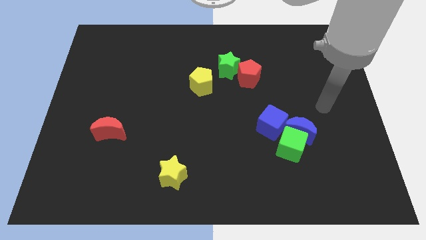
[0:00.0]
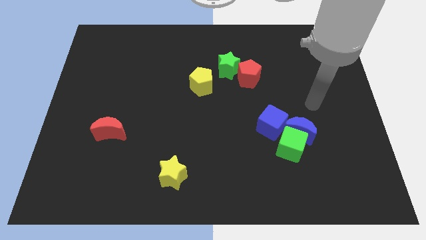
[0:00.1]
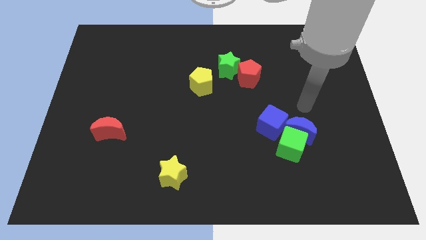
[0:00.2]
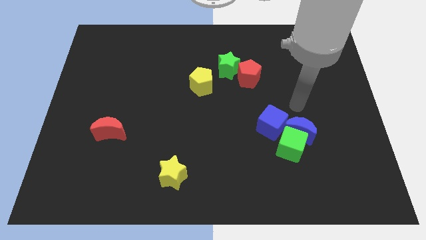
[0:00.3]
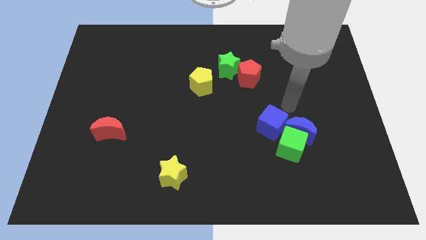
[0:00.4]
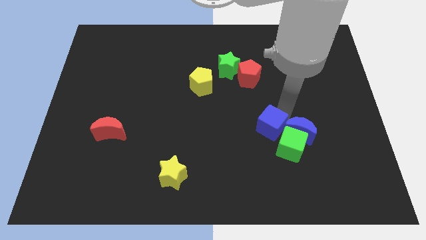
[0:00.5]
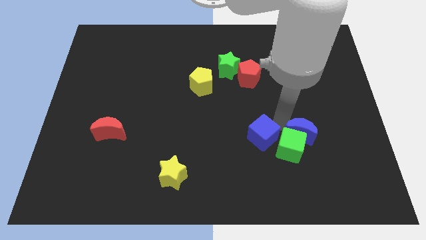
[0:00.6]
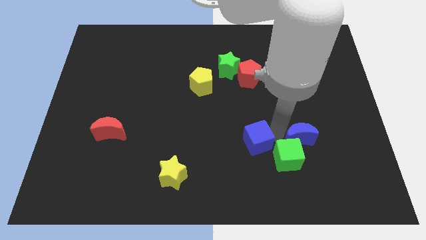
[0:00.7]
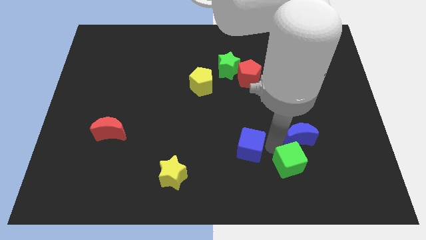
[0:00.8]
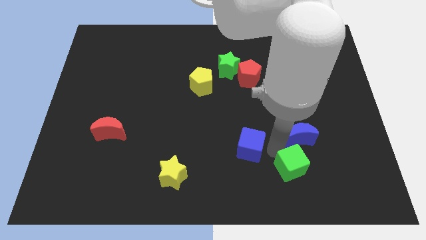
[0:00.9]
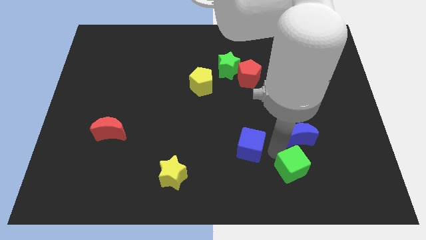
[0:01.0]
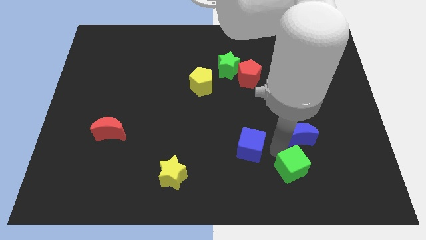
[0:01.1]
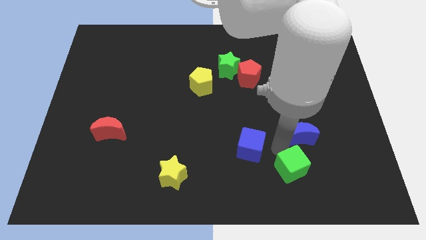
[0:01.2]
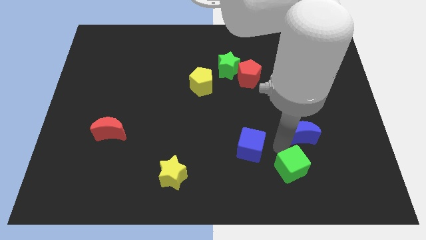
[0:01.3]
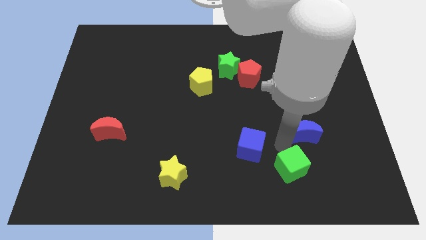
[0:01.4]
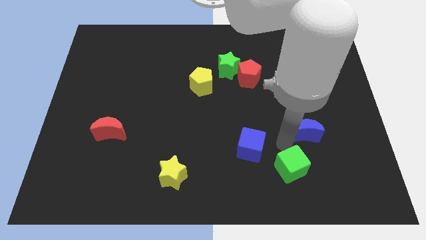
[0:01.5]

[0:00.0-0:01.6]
move the blue moon away from the green cube and blue cube

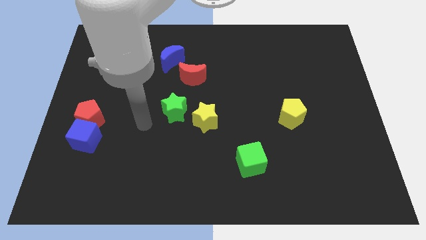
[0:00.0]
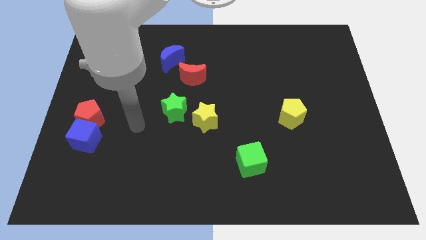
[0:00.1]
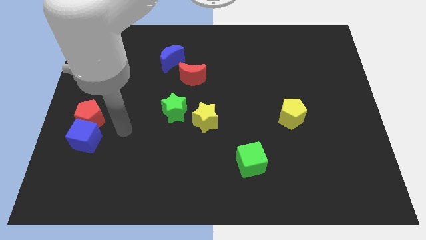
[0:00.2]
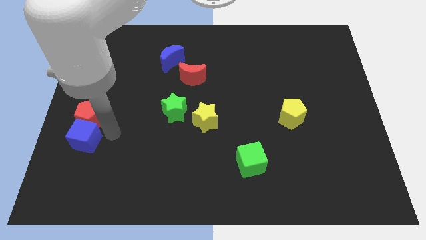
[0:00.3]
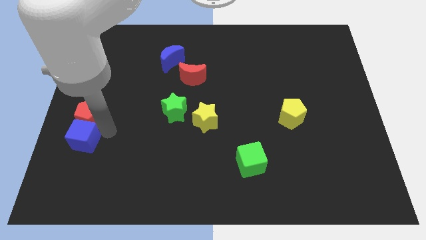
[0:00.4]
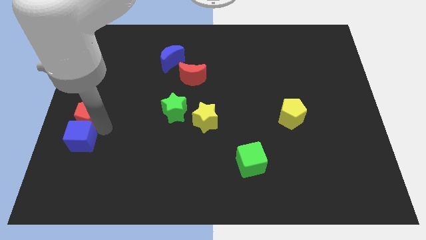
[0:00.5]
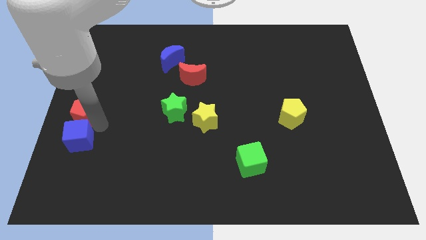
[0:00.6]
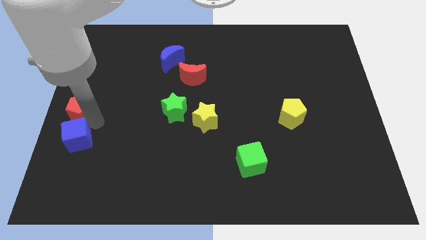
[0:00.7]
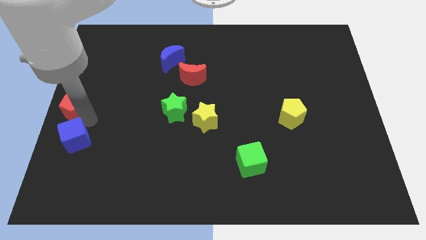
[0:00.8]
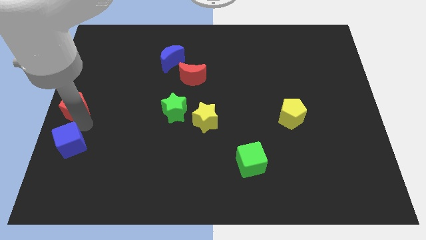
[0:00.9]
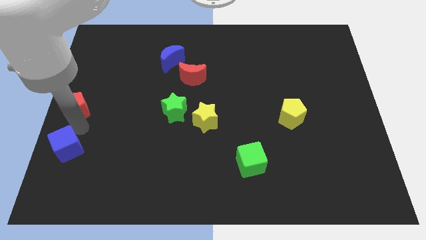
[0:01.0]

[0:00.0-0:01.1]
pull the red pentagon apart from the blue cube

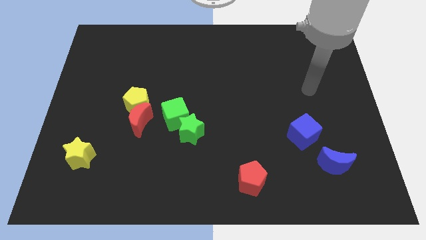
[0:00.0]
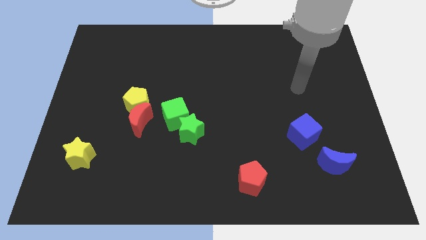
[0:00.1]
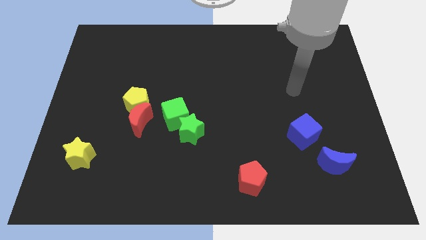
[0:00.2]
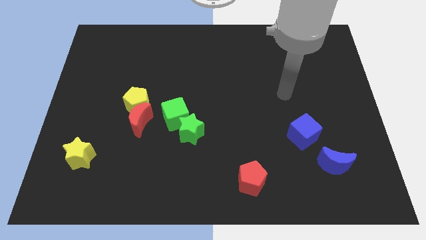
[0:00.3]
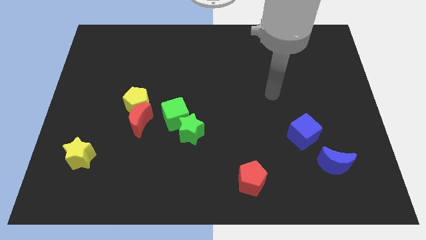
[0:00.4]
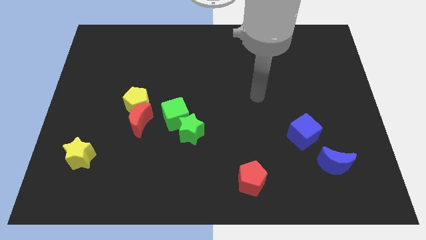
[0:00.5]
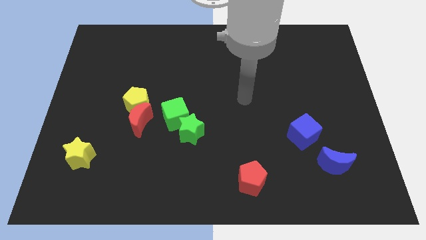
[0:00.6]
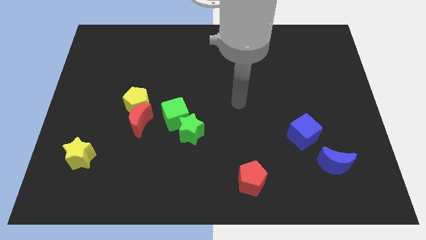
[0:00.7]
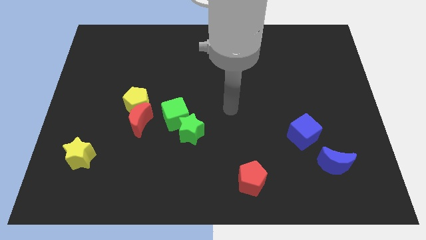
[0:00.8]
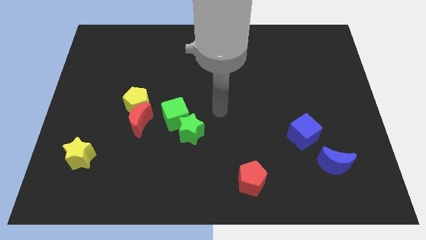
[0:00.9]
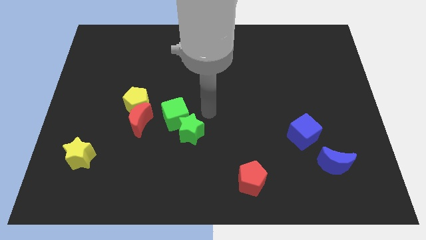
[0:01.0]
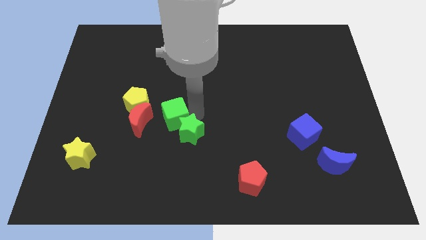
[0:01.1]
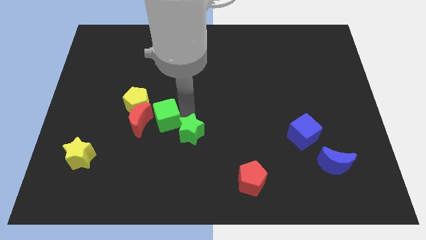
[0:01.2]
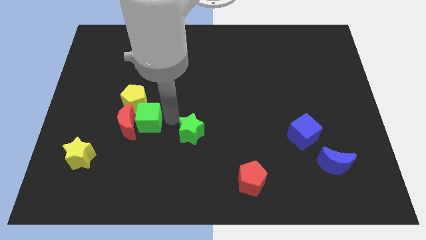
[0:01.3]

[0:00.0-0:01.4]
separate the green star from the green cube

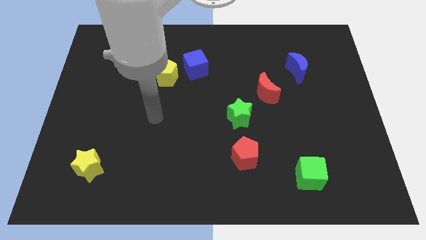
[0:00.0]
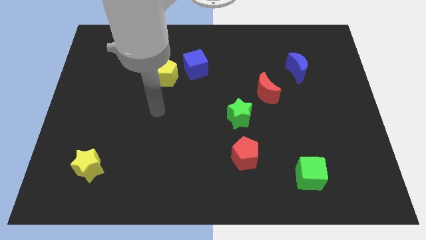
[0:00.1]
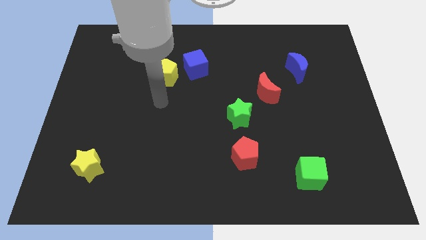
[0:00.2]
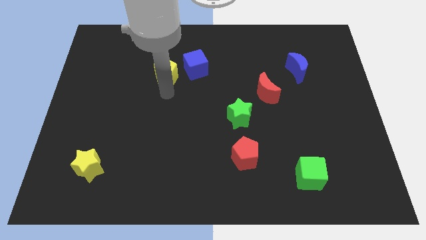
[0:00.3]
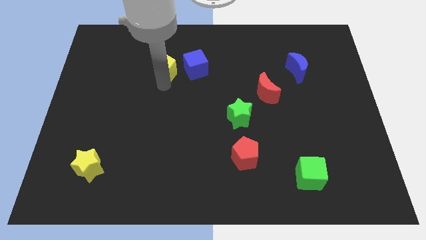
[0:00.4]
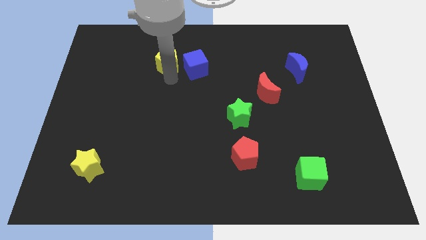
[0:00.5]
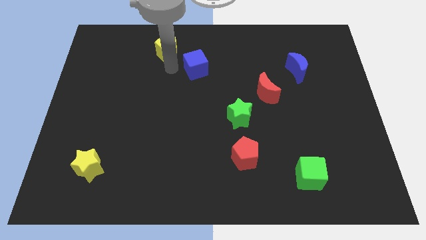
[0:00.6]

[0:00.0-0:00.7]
move the blue cube away from the yellow pentagon

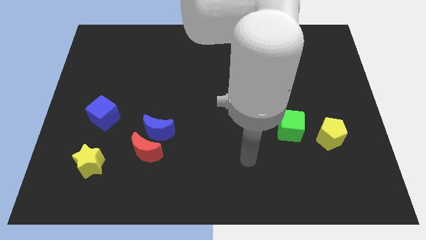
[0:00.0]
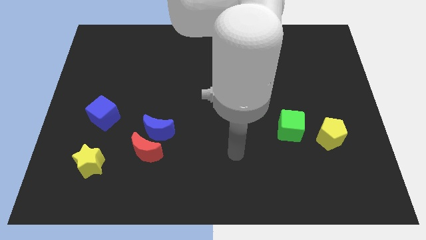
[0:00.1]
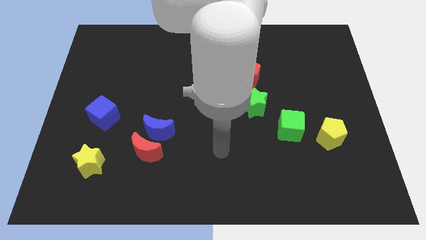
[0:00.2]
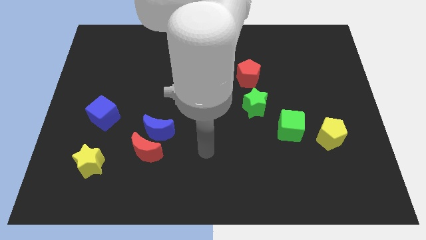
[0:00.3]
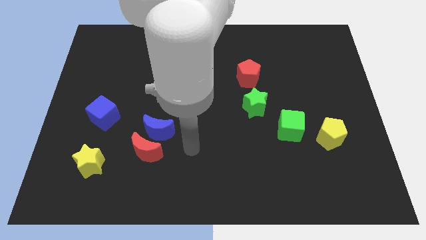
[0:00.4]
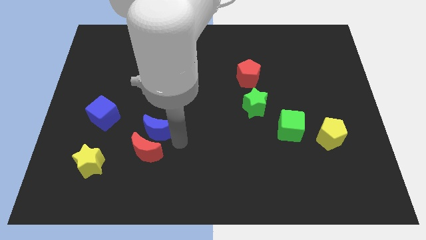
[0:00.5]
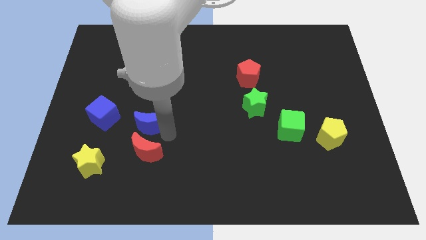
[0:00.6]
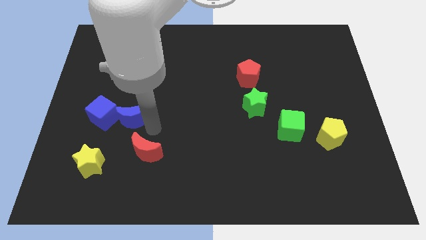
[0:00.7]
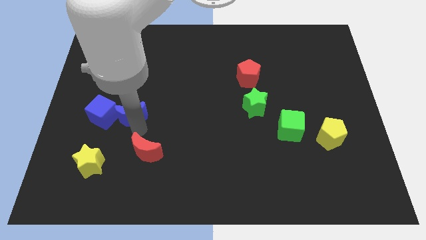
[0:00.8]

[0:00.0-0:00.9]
move the red moon away from the blue moon

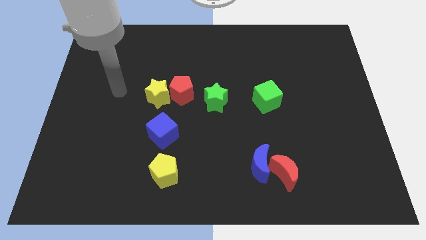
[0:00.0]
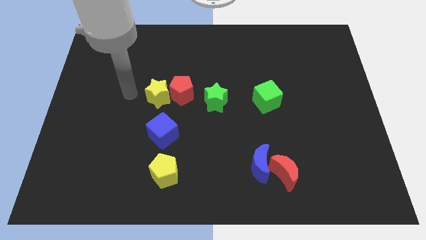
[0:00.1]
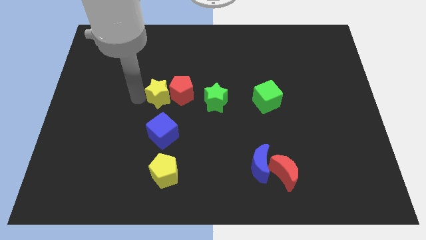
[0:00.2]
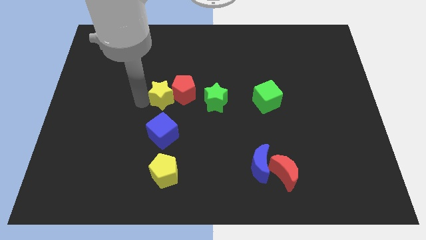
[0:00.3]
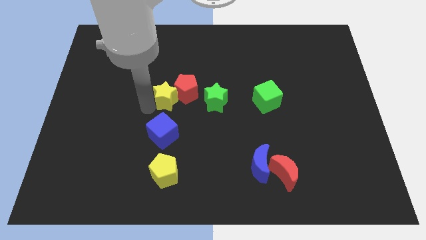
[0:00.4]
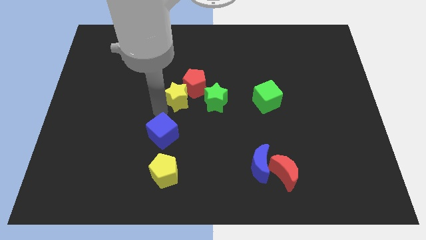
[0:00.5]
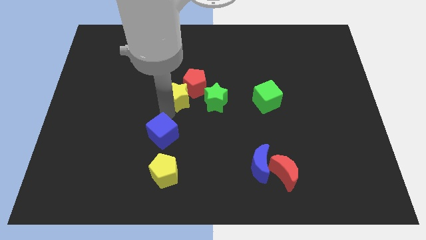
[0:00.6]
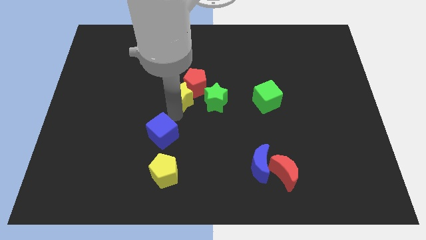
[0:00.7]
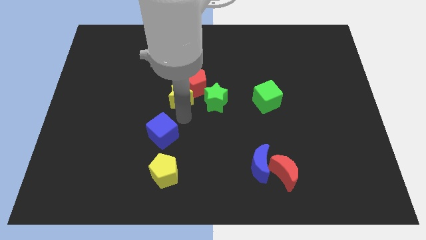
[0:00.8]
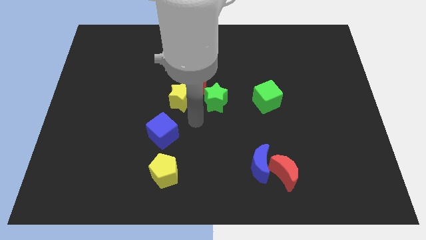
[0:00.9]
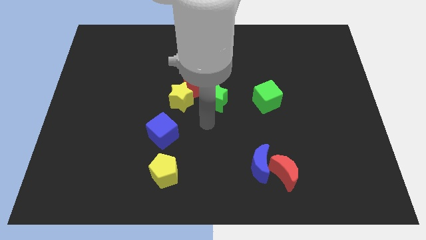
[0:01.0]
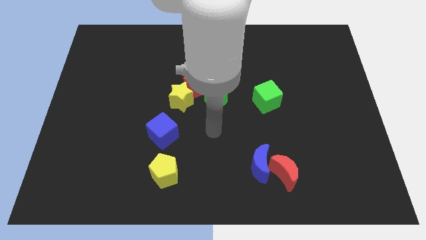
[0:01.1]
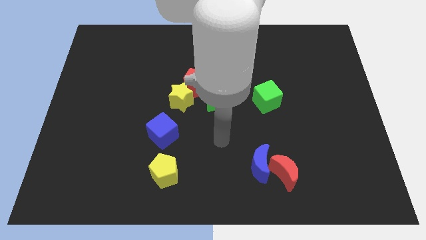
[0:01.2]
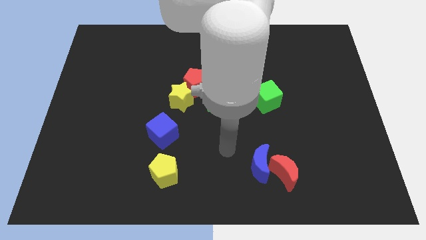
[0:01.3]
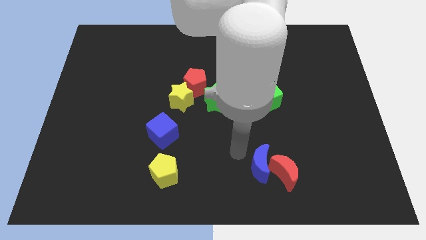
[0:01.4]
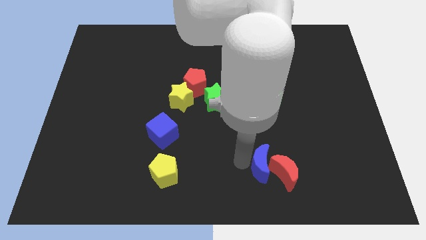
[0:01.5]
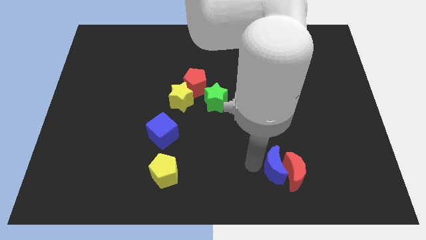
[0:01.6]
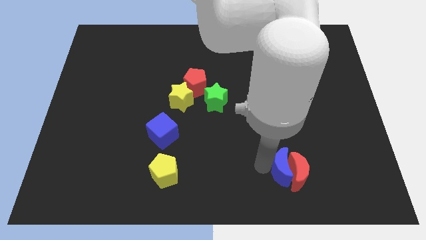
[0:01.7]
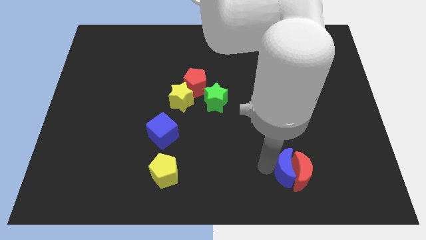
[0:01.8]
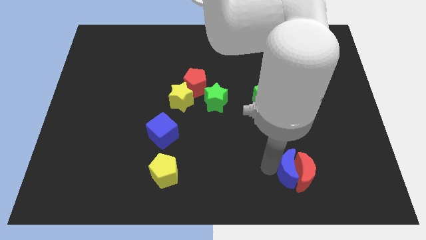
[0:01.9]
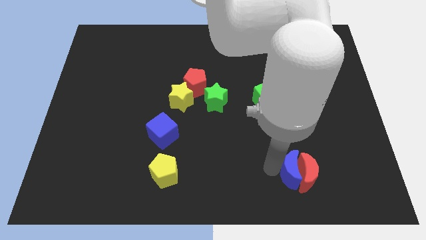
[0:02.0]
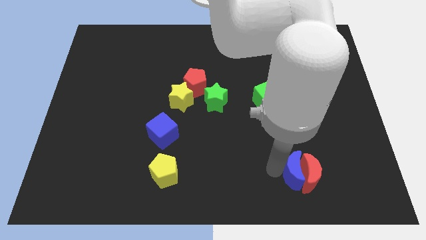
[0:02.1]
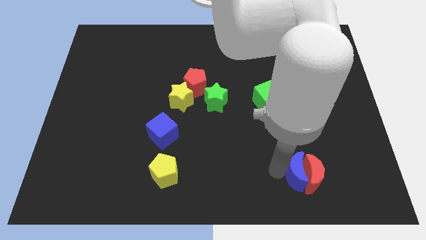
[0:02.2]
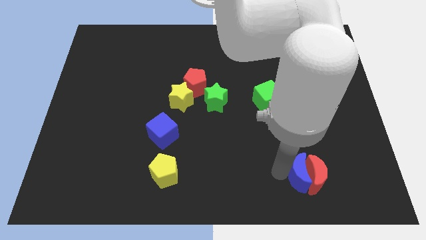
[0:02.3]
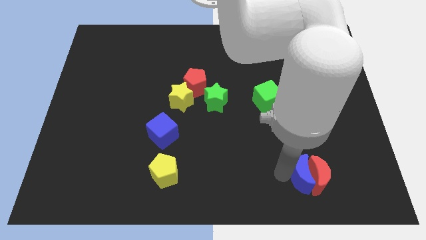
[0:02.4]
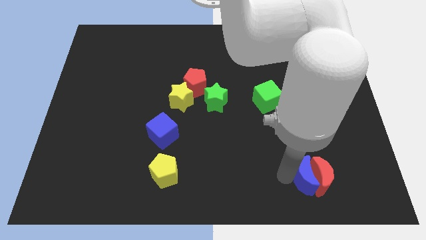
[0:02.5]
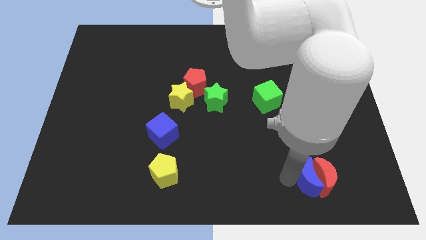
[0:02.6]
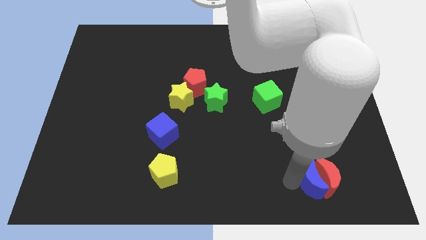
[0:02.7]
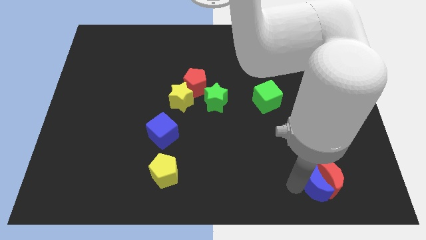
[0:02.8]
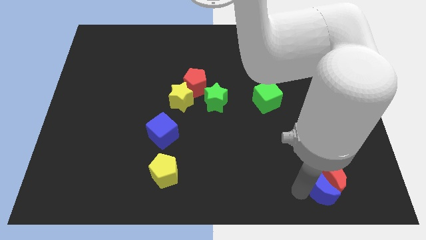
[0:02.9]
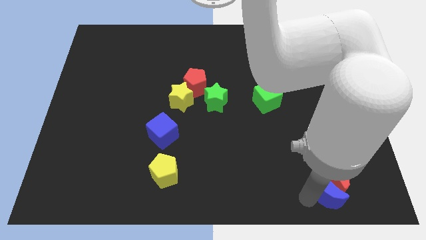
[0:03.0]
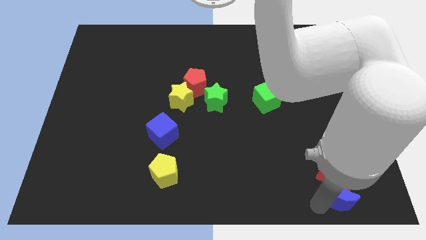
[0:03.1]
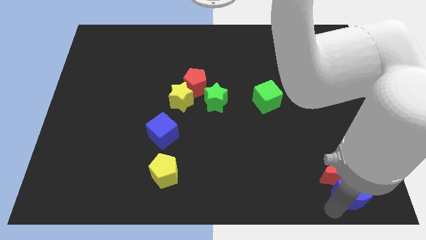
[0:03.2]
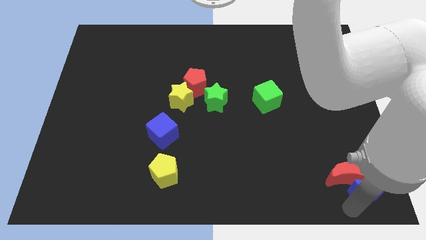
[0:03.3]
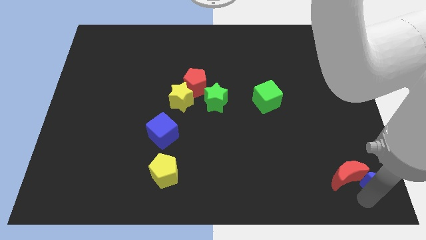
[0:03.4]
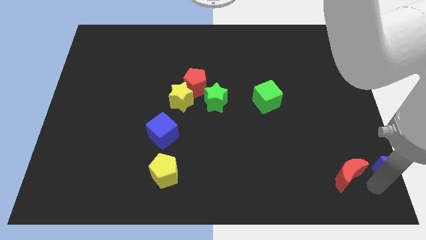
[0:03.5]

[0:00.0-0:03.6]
pull the red moon apart from the blue moon
